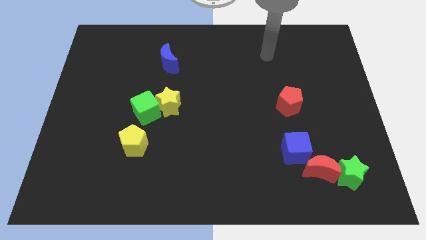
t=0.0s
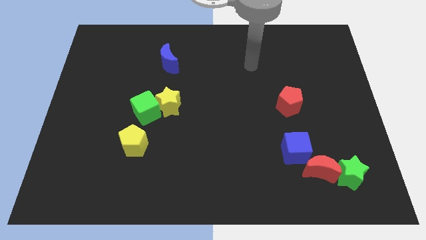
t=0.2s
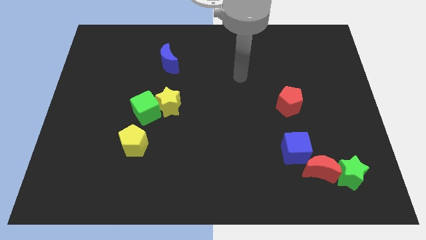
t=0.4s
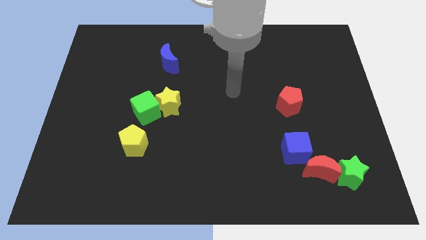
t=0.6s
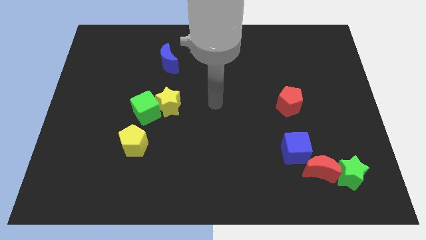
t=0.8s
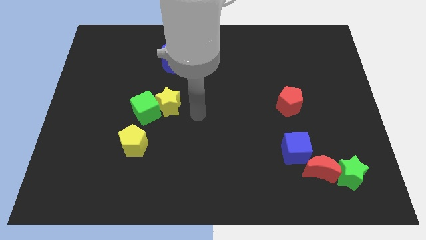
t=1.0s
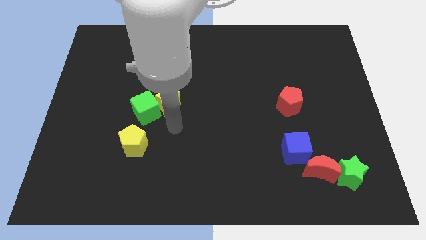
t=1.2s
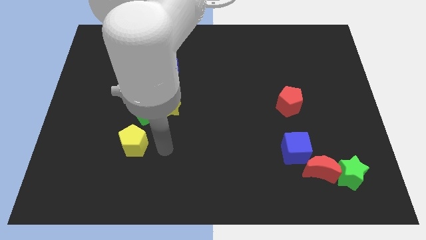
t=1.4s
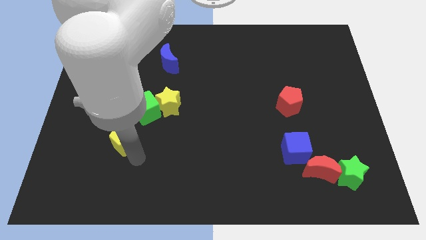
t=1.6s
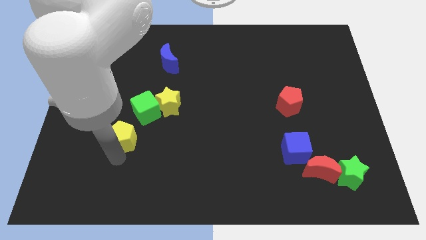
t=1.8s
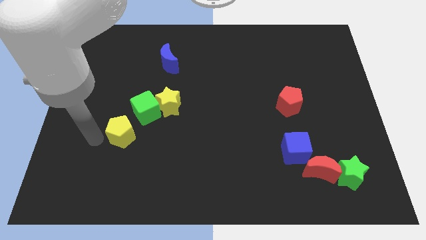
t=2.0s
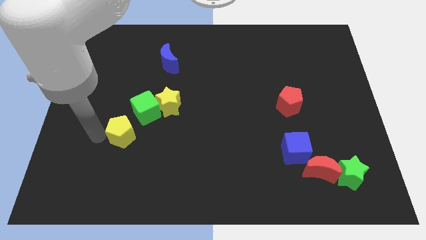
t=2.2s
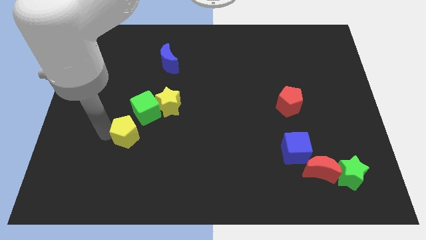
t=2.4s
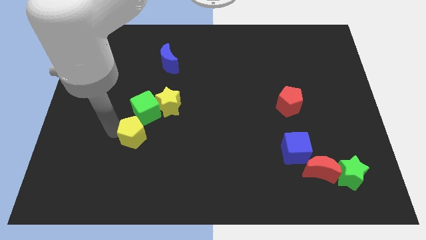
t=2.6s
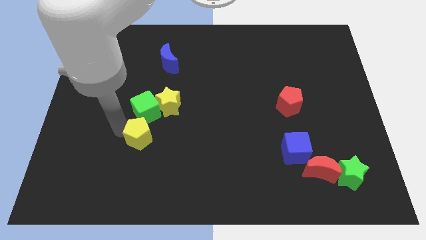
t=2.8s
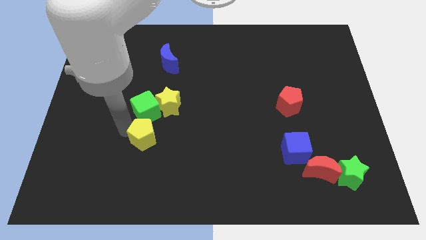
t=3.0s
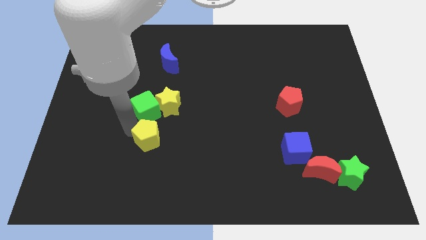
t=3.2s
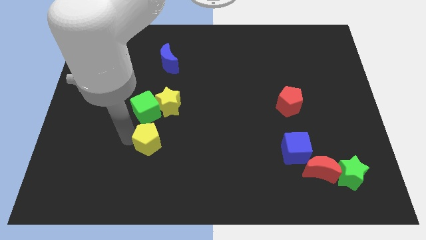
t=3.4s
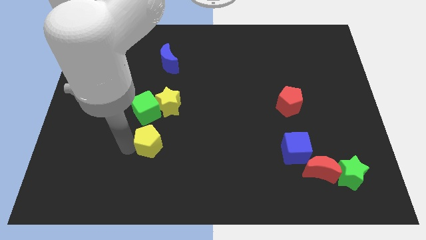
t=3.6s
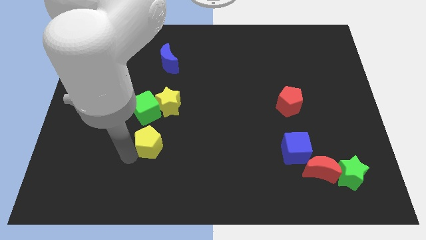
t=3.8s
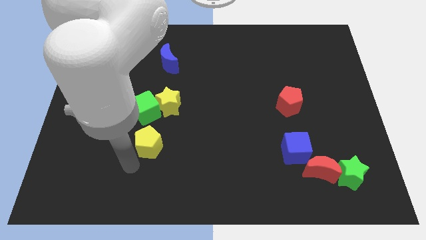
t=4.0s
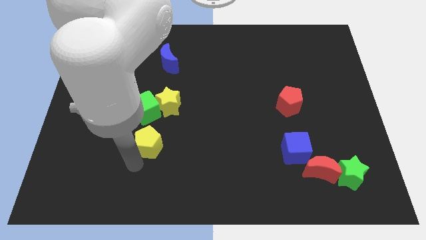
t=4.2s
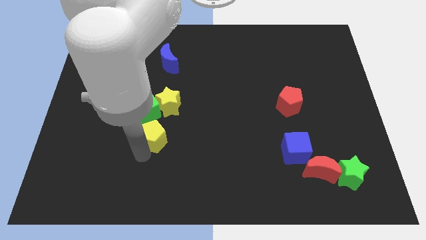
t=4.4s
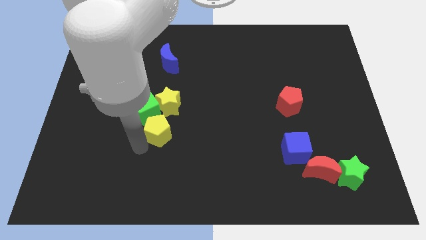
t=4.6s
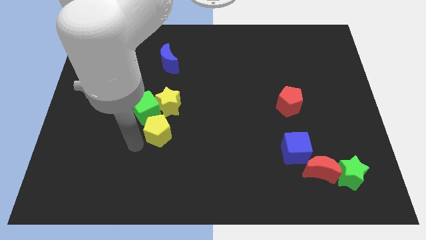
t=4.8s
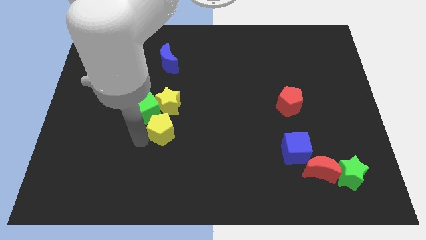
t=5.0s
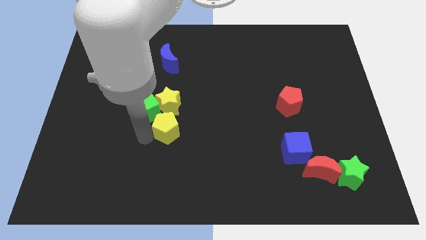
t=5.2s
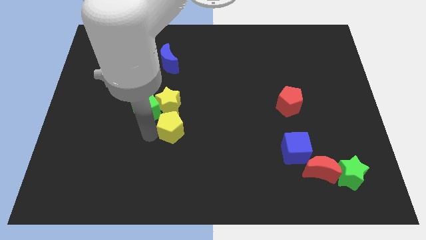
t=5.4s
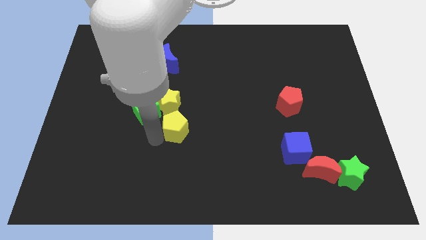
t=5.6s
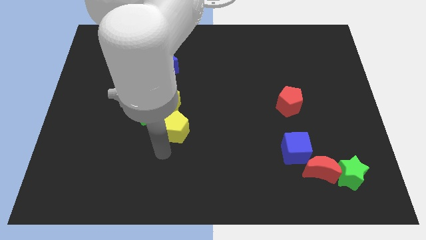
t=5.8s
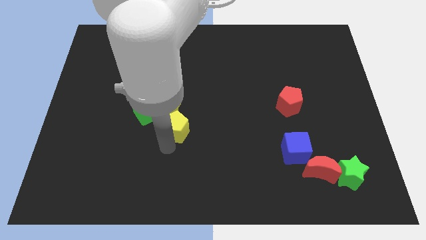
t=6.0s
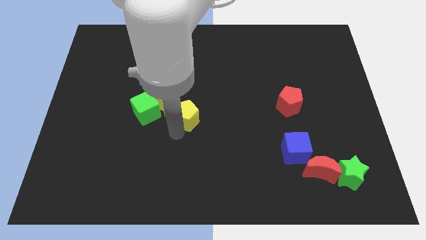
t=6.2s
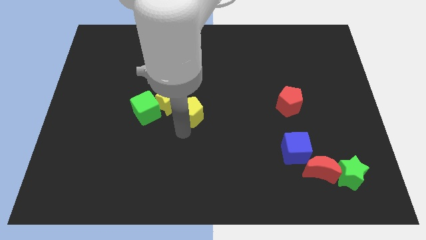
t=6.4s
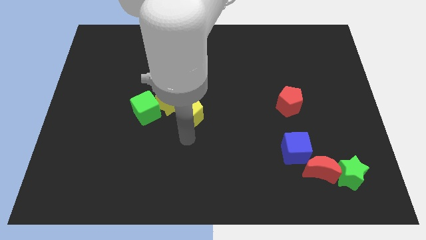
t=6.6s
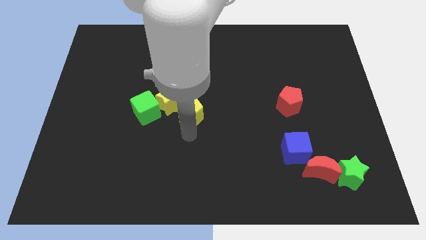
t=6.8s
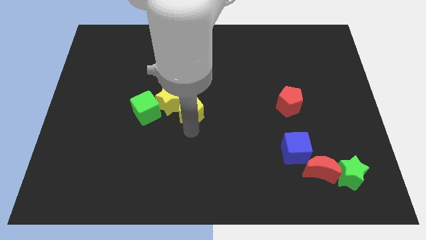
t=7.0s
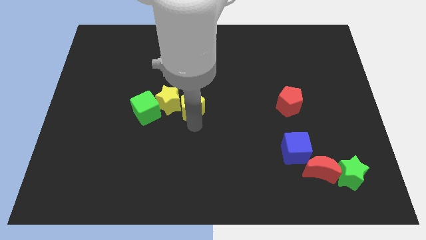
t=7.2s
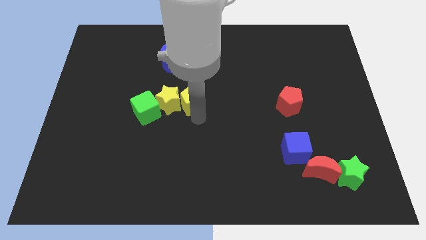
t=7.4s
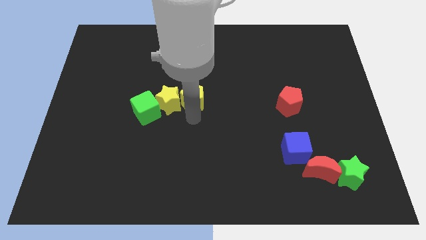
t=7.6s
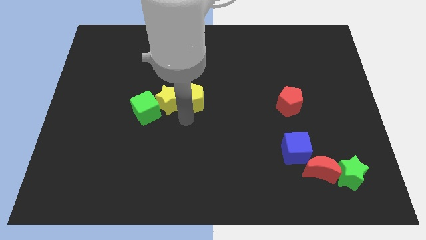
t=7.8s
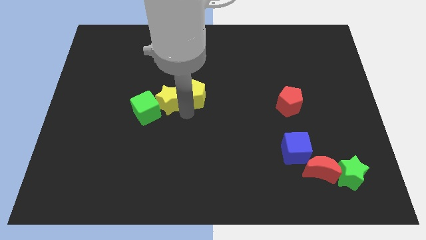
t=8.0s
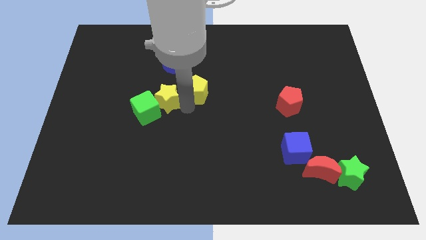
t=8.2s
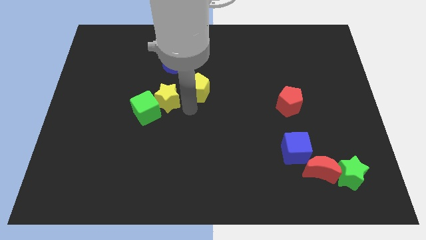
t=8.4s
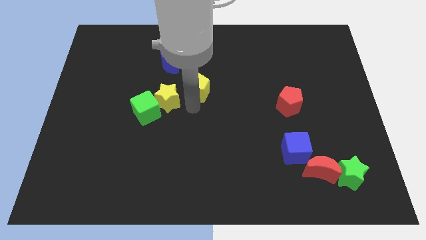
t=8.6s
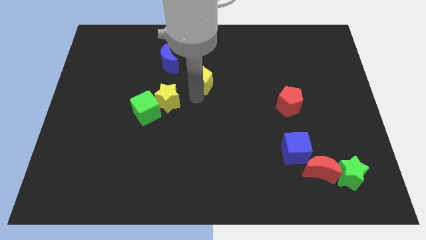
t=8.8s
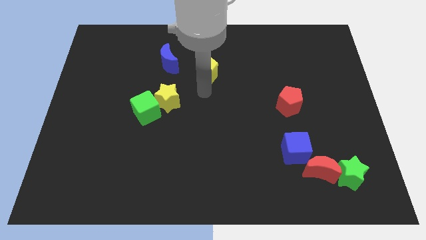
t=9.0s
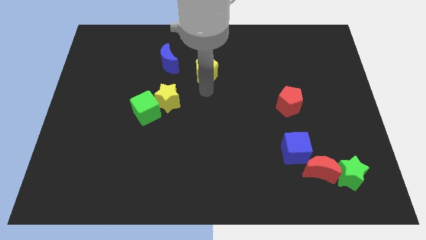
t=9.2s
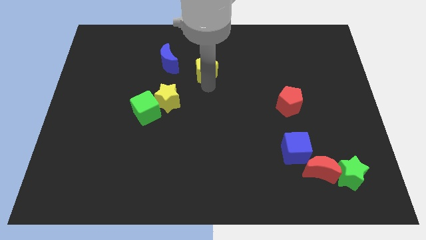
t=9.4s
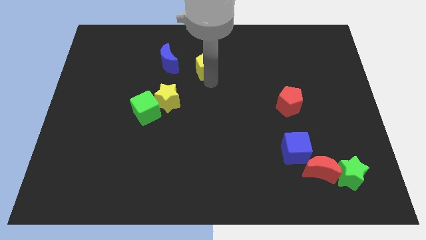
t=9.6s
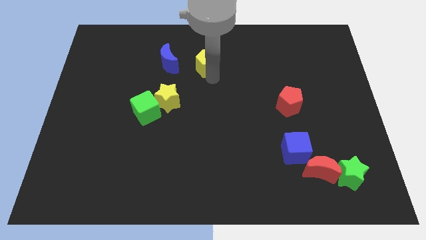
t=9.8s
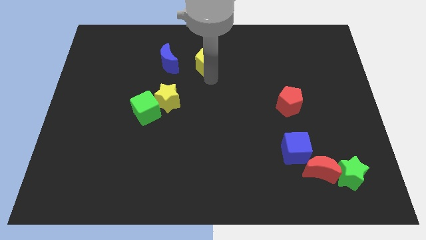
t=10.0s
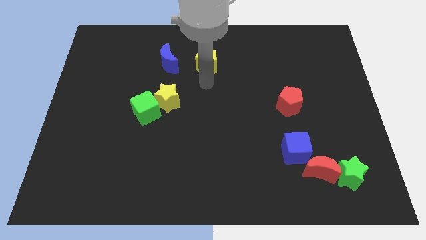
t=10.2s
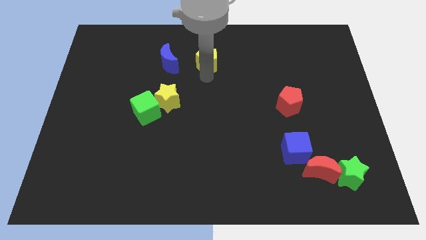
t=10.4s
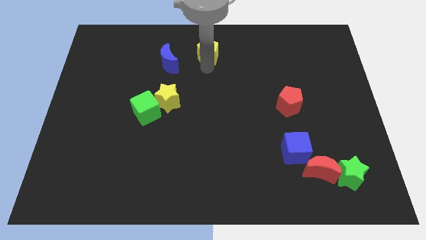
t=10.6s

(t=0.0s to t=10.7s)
push the yellow pentagon to the top

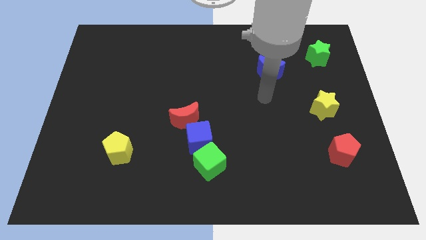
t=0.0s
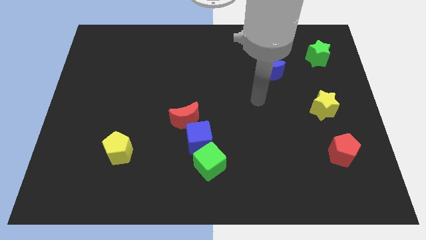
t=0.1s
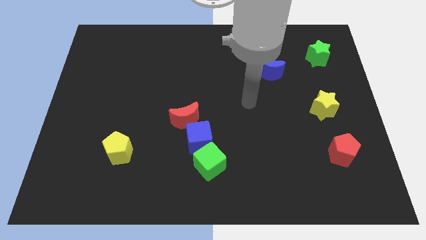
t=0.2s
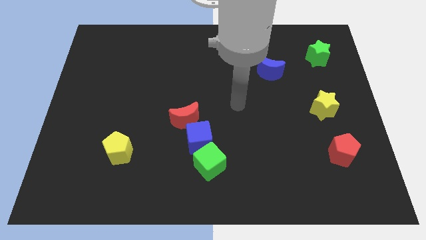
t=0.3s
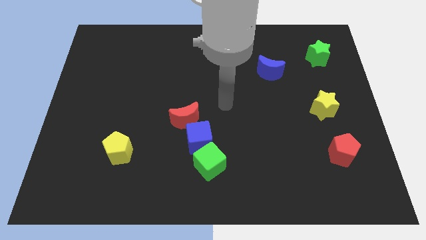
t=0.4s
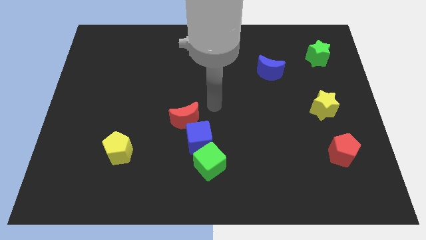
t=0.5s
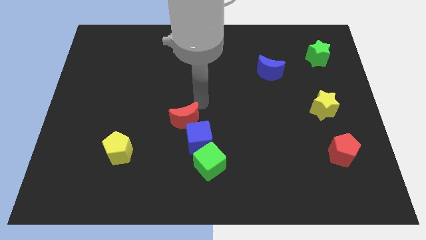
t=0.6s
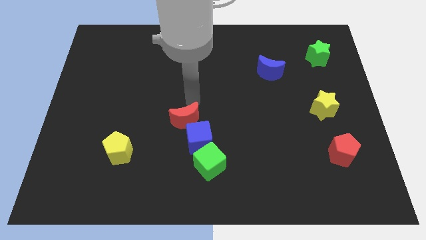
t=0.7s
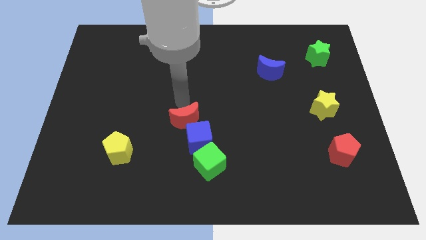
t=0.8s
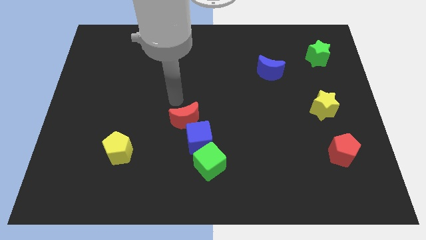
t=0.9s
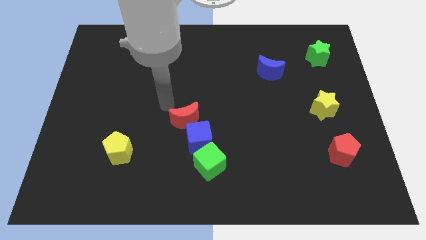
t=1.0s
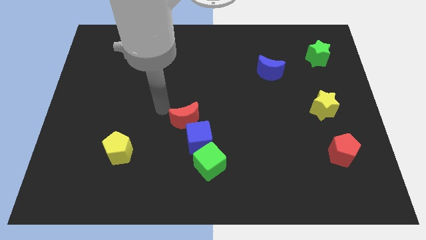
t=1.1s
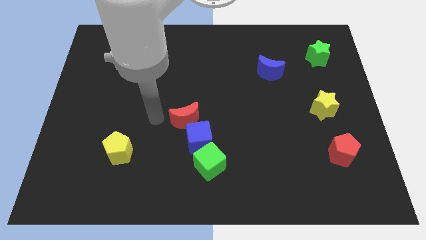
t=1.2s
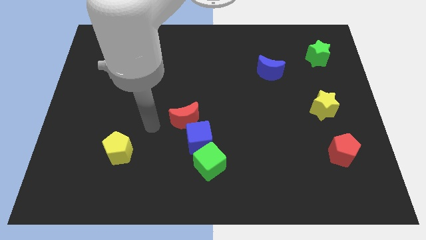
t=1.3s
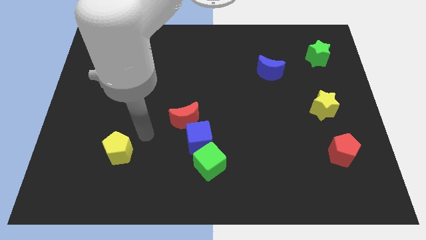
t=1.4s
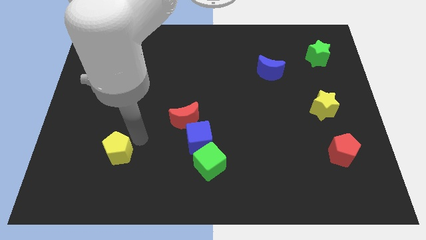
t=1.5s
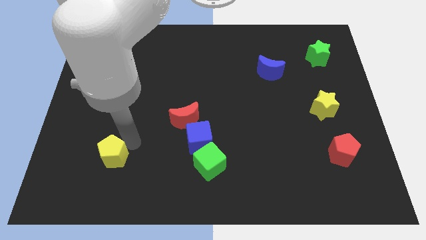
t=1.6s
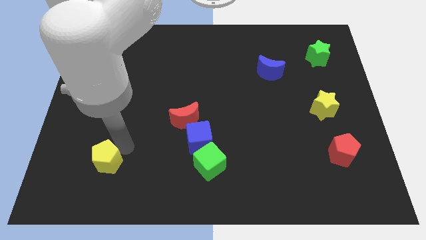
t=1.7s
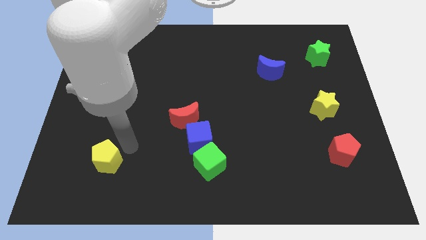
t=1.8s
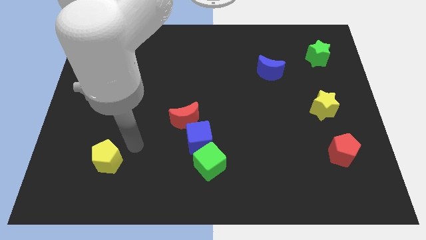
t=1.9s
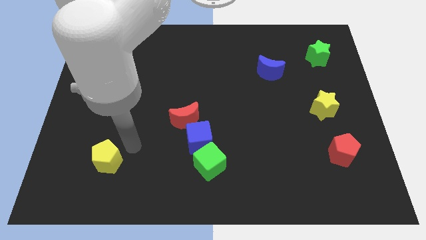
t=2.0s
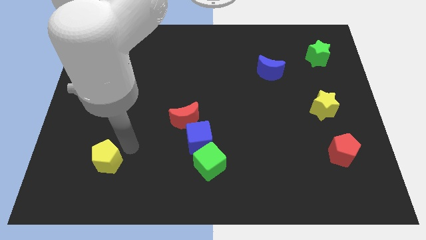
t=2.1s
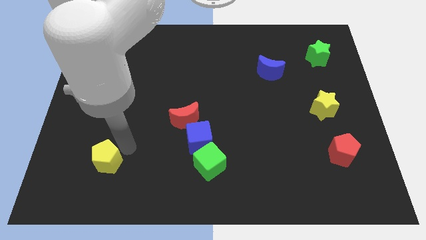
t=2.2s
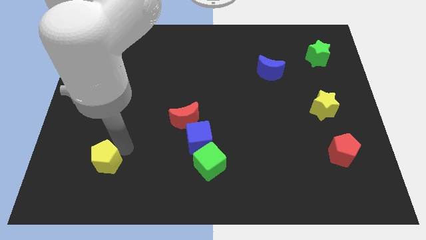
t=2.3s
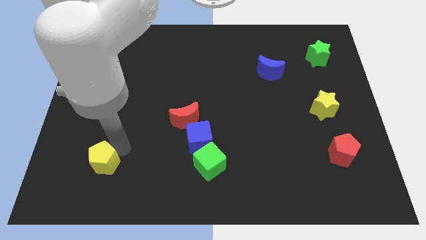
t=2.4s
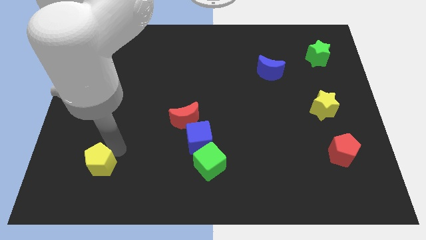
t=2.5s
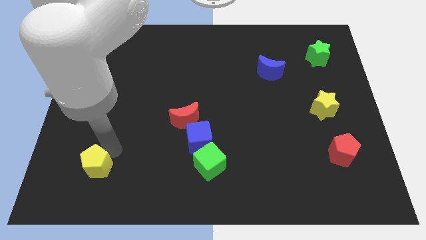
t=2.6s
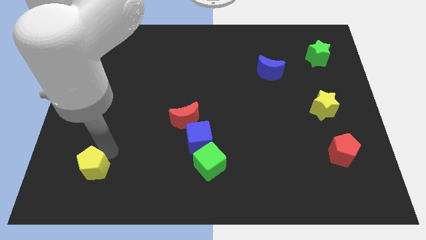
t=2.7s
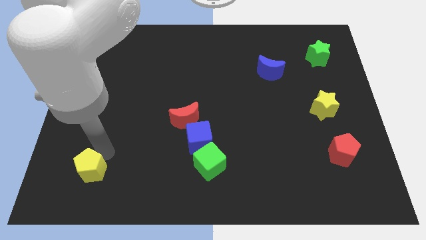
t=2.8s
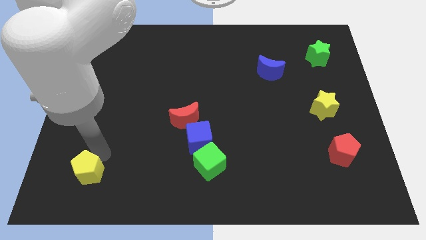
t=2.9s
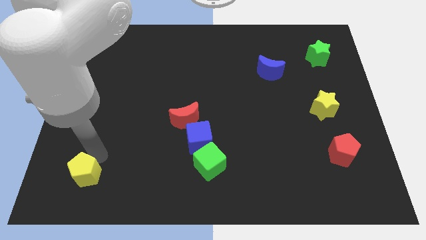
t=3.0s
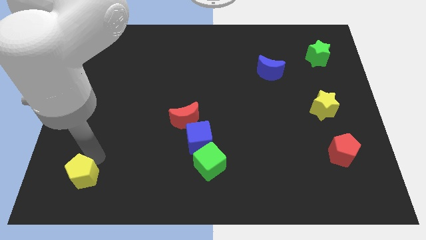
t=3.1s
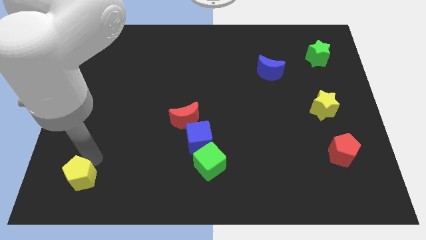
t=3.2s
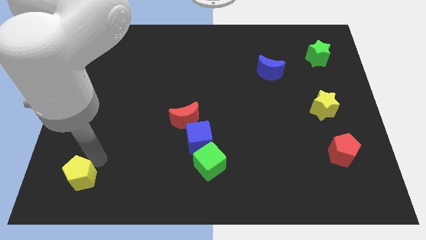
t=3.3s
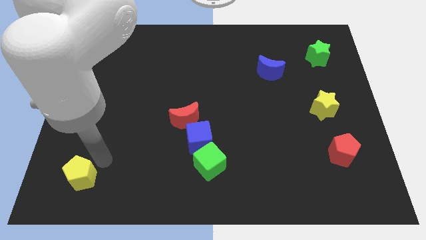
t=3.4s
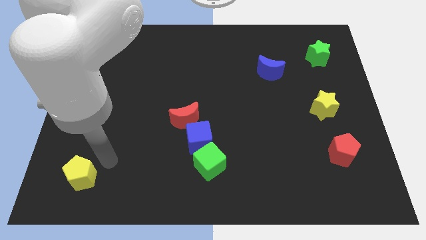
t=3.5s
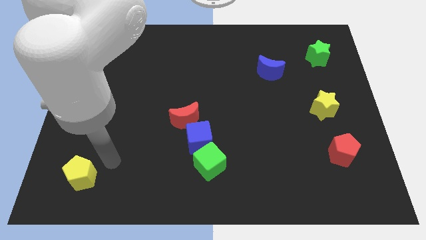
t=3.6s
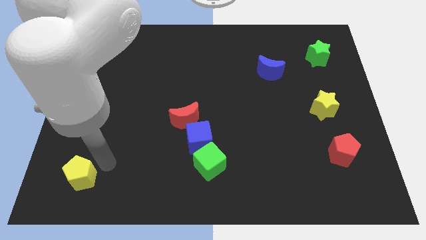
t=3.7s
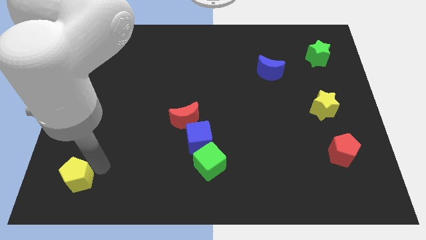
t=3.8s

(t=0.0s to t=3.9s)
slide the yellow pentagon to the bottom left corner
